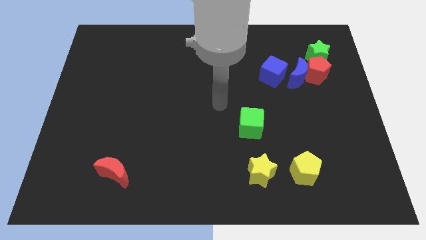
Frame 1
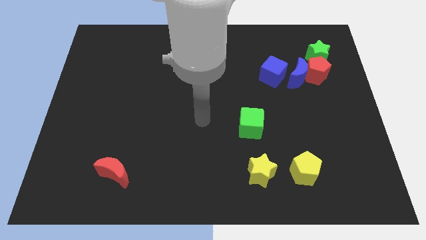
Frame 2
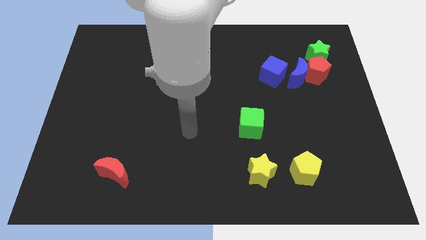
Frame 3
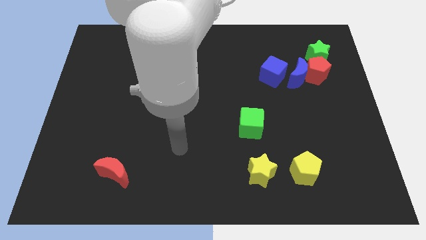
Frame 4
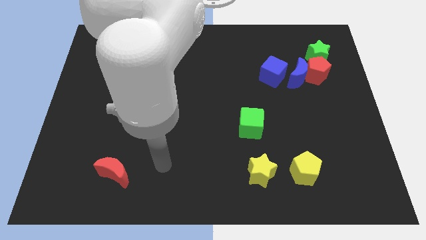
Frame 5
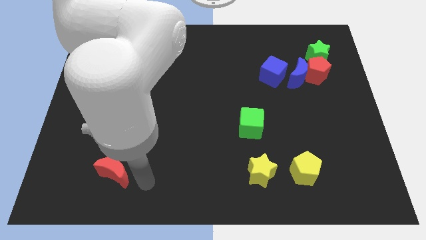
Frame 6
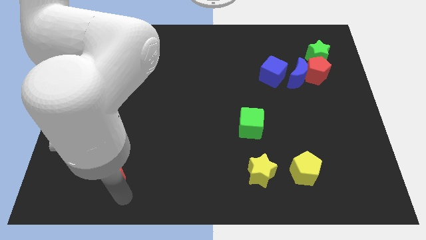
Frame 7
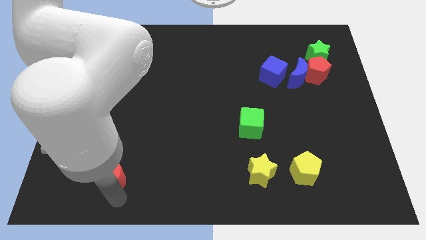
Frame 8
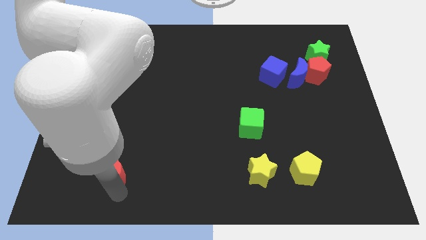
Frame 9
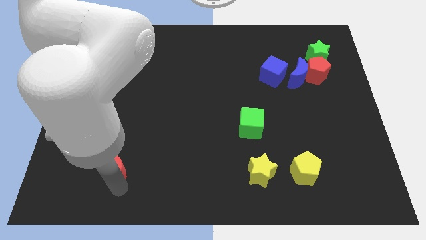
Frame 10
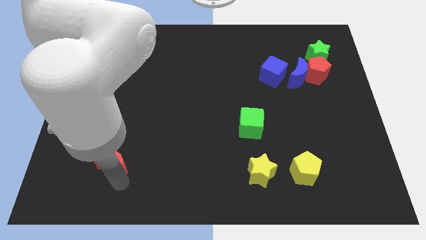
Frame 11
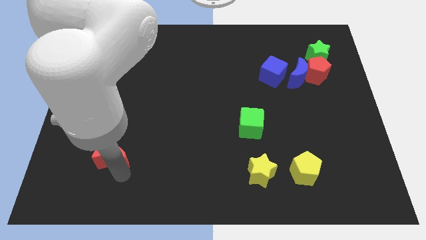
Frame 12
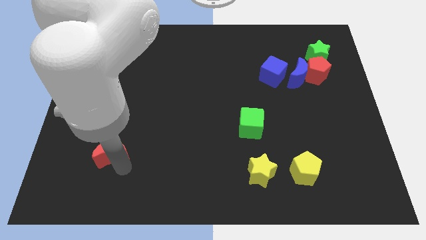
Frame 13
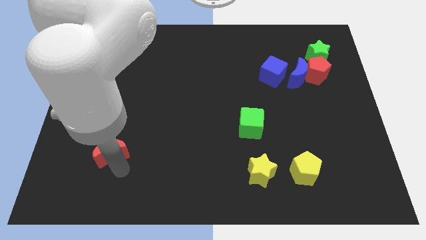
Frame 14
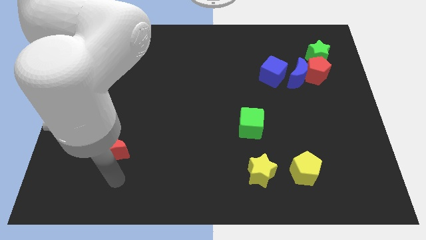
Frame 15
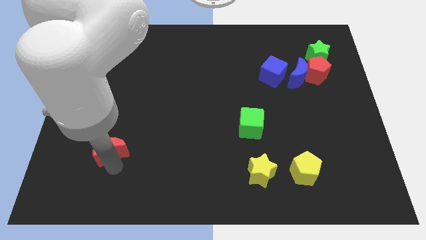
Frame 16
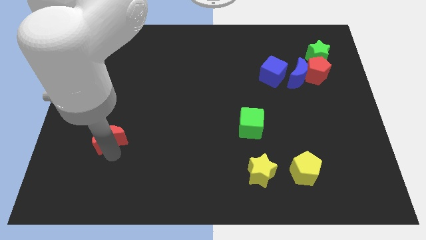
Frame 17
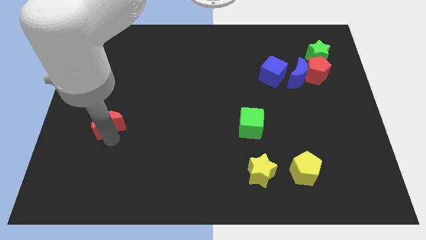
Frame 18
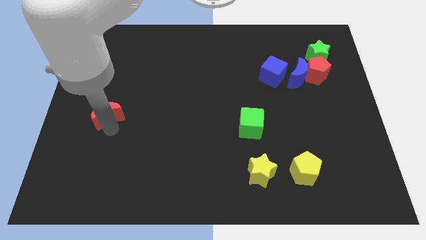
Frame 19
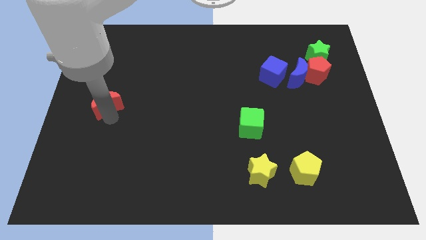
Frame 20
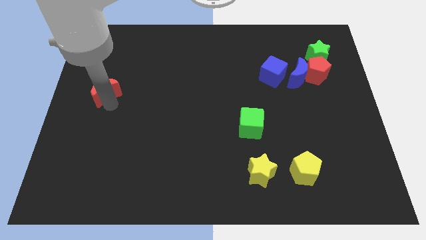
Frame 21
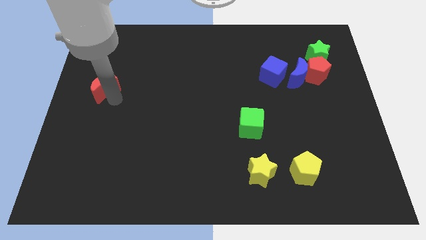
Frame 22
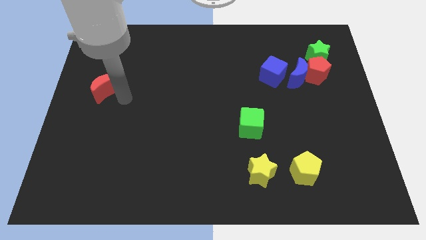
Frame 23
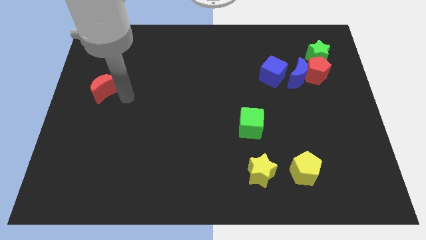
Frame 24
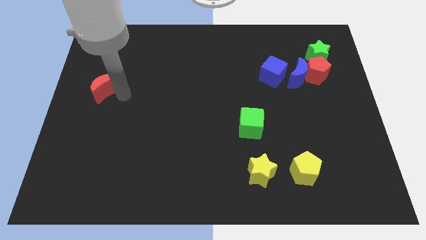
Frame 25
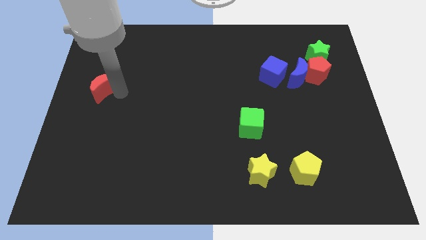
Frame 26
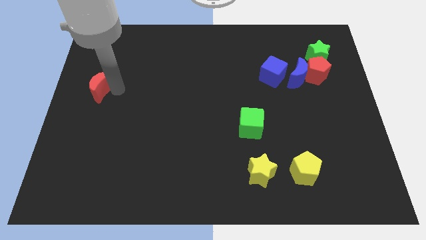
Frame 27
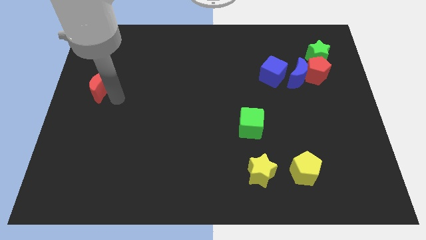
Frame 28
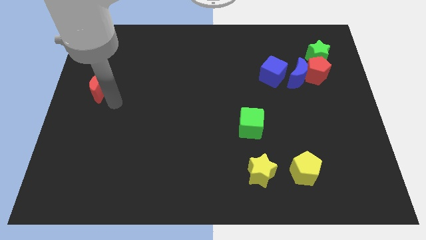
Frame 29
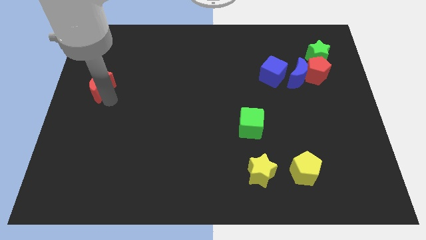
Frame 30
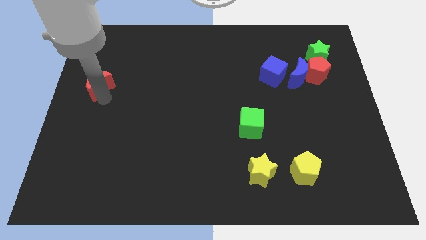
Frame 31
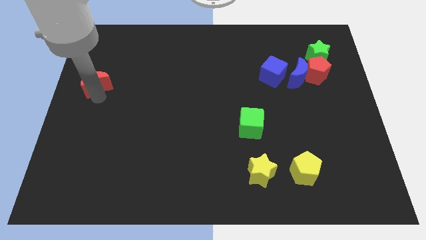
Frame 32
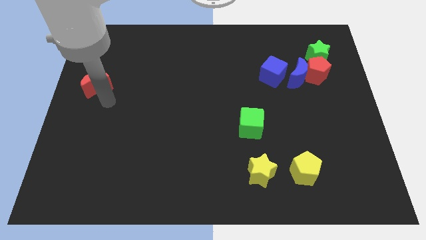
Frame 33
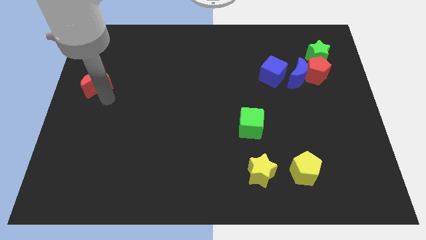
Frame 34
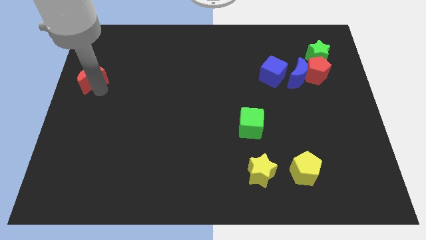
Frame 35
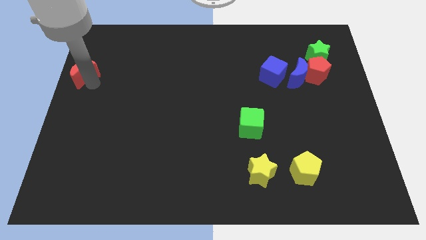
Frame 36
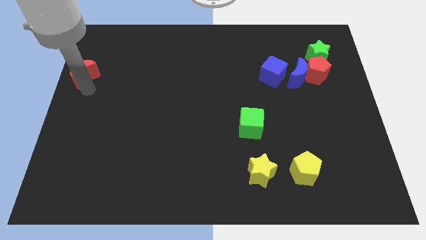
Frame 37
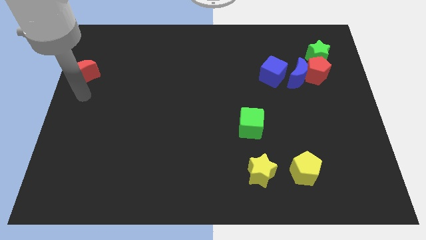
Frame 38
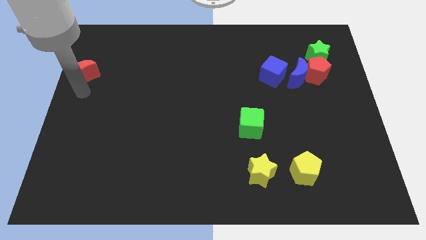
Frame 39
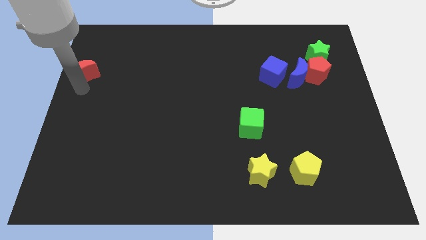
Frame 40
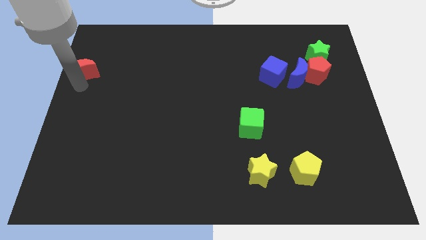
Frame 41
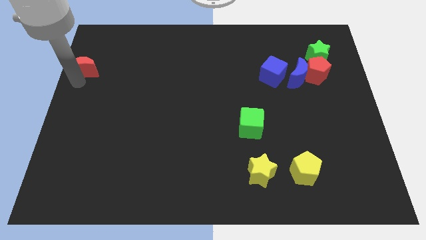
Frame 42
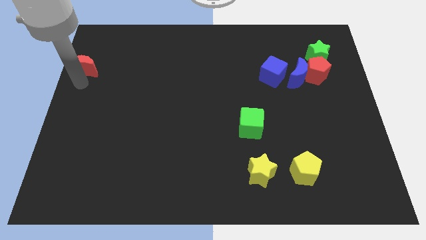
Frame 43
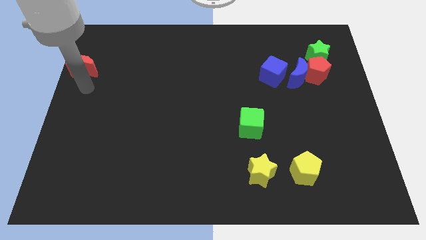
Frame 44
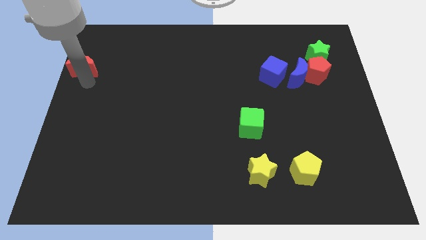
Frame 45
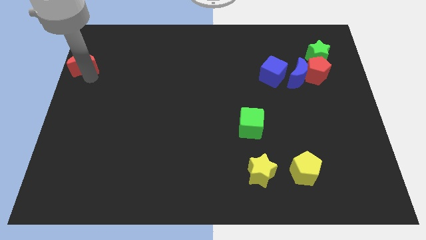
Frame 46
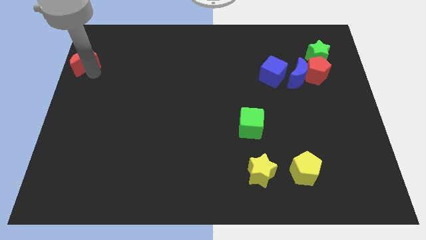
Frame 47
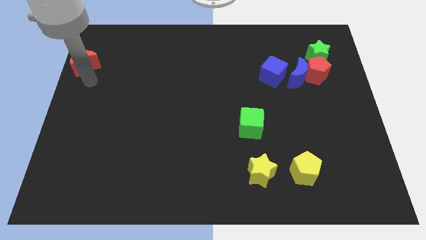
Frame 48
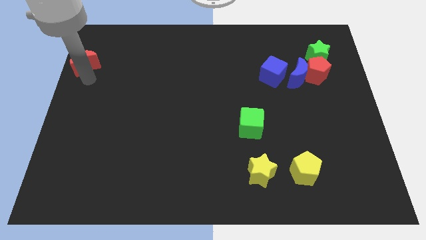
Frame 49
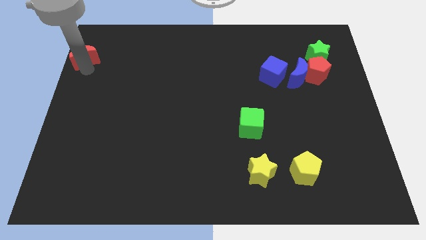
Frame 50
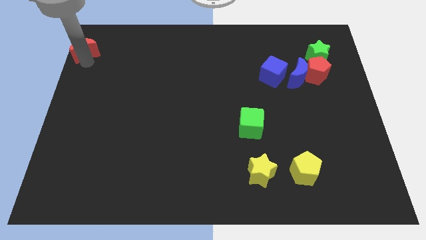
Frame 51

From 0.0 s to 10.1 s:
put the red moon to the top left
